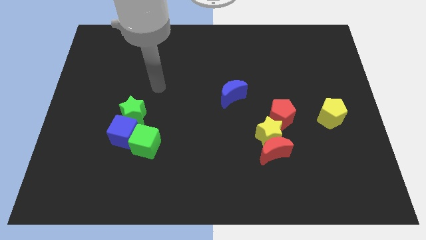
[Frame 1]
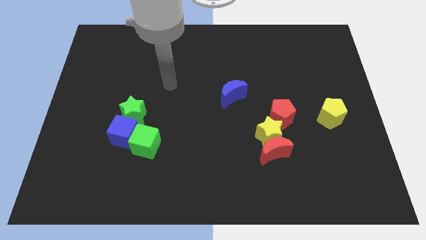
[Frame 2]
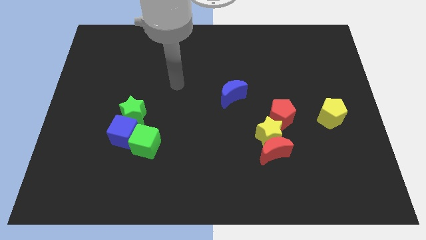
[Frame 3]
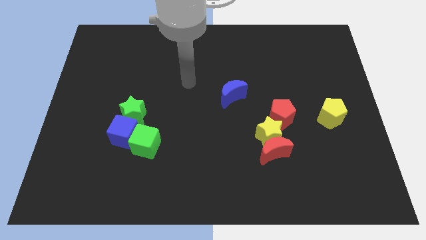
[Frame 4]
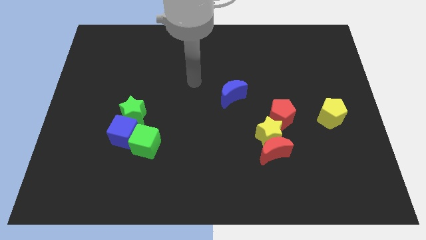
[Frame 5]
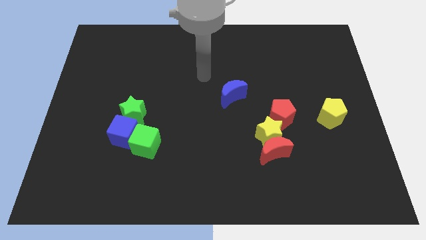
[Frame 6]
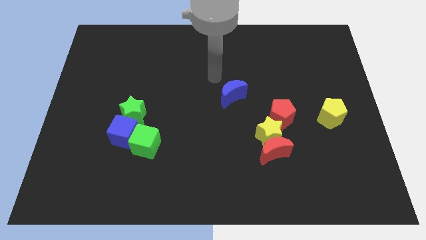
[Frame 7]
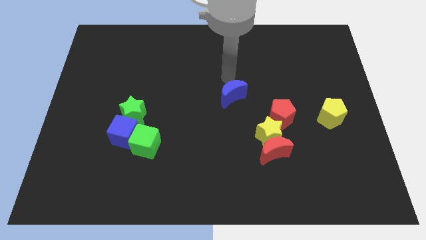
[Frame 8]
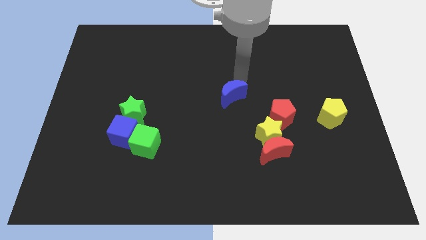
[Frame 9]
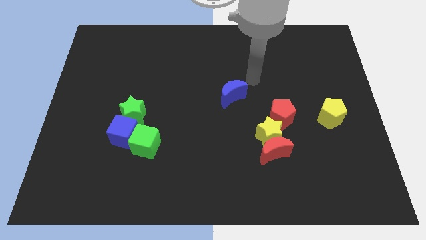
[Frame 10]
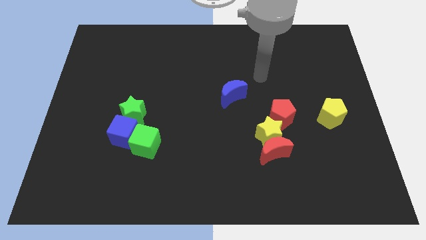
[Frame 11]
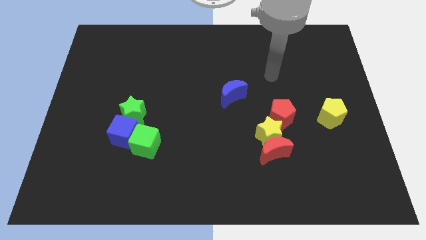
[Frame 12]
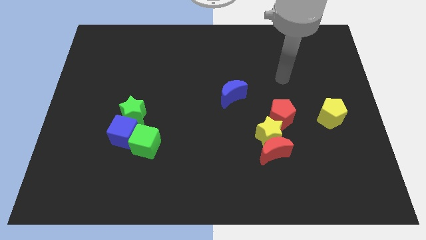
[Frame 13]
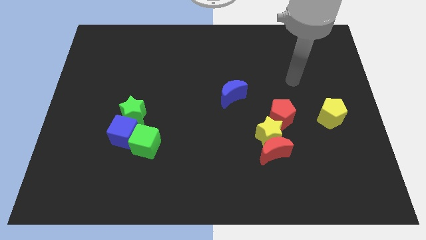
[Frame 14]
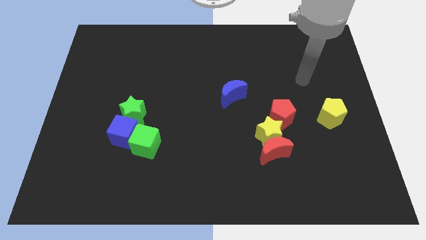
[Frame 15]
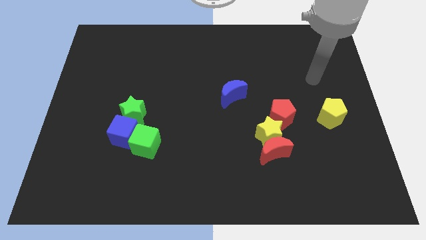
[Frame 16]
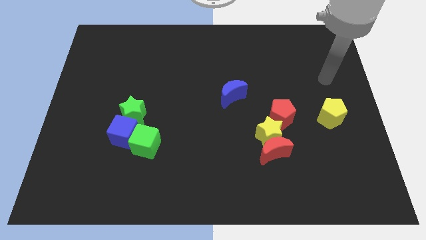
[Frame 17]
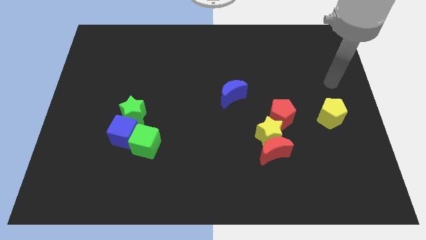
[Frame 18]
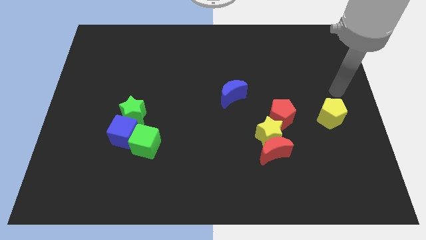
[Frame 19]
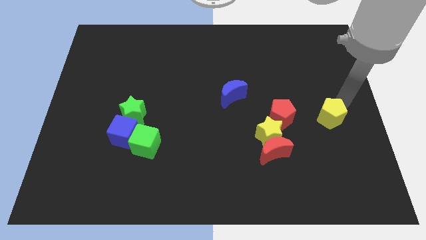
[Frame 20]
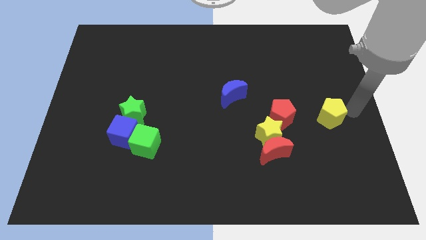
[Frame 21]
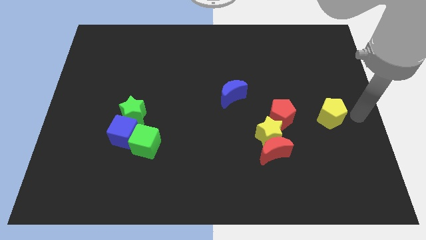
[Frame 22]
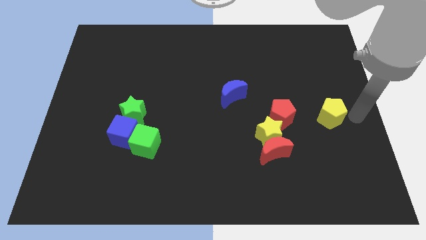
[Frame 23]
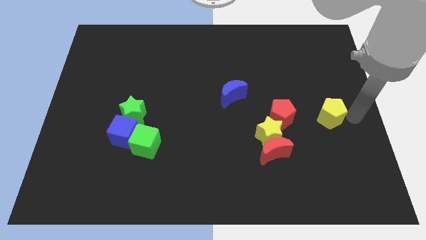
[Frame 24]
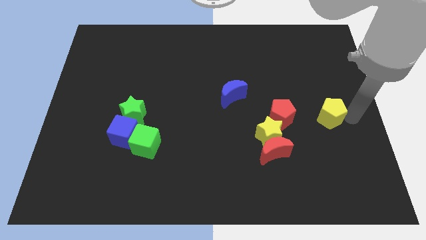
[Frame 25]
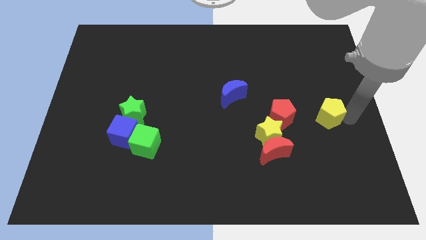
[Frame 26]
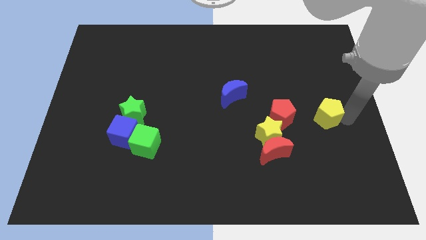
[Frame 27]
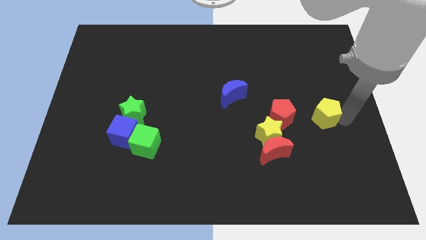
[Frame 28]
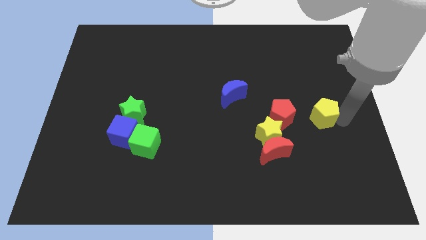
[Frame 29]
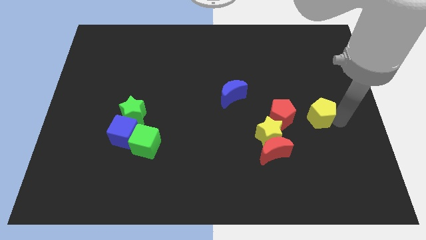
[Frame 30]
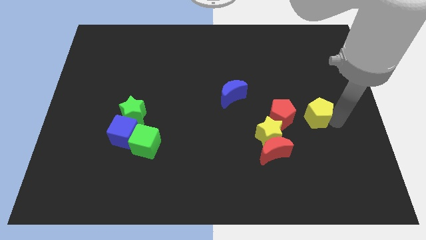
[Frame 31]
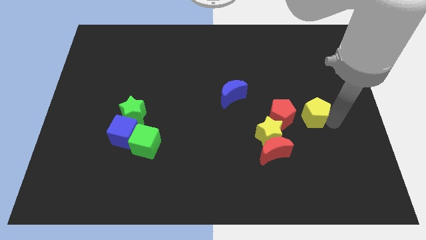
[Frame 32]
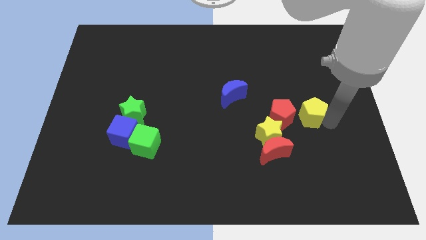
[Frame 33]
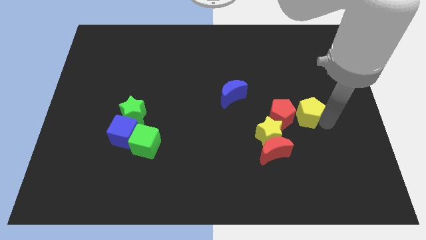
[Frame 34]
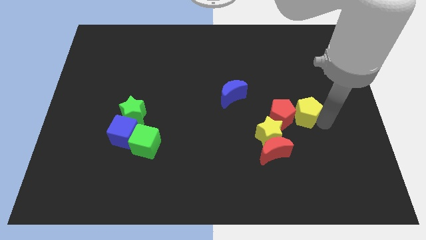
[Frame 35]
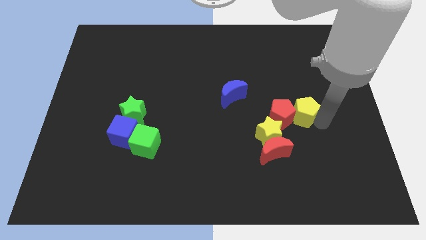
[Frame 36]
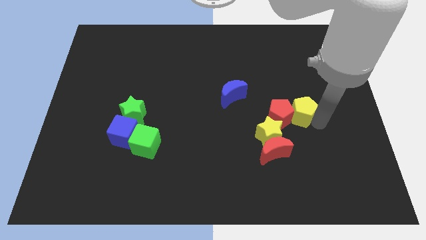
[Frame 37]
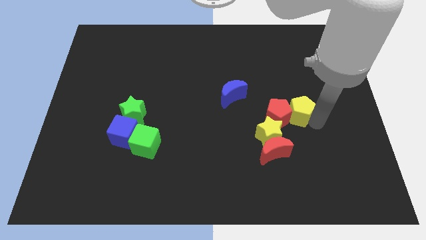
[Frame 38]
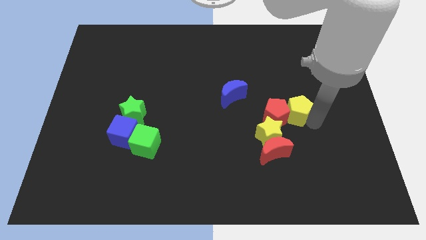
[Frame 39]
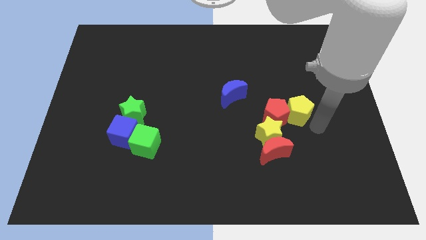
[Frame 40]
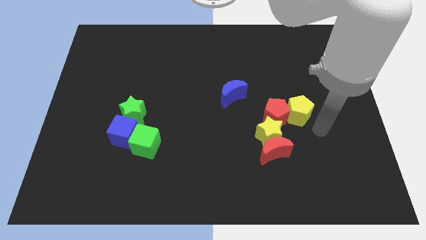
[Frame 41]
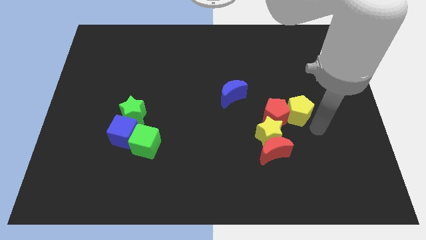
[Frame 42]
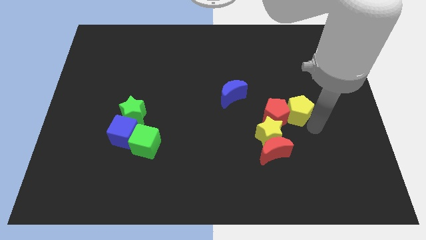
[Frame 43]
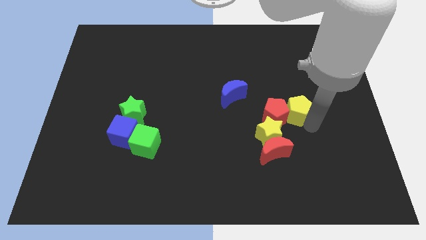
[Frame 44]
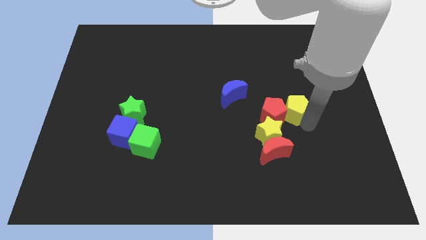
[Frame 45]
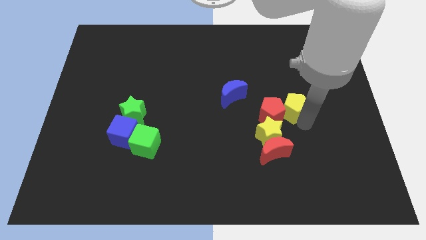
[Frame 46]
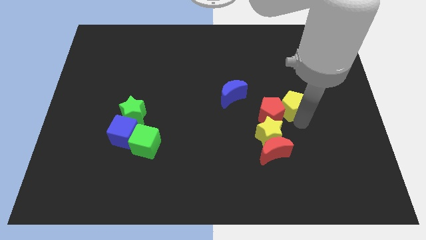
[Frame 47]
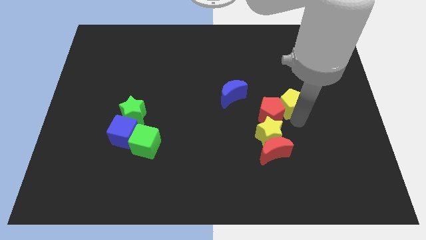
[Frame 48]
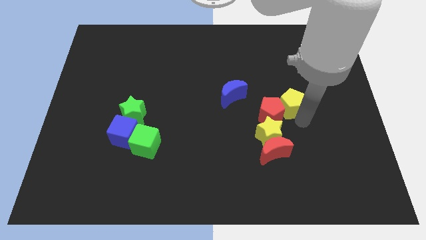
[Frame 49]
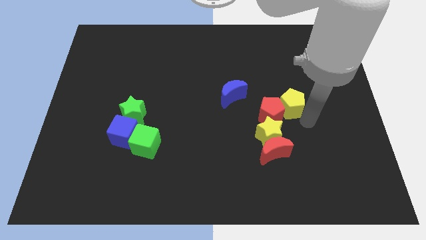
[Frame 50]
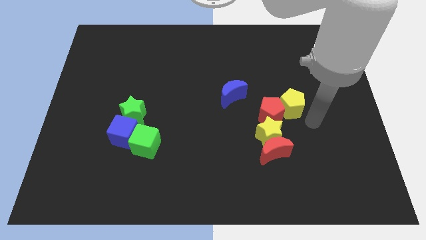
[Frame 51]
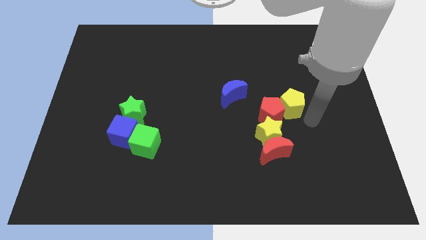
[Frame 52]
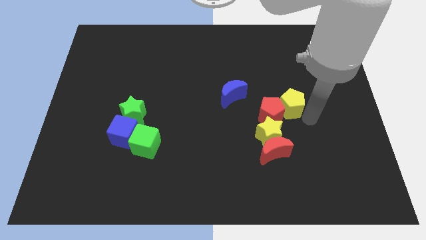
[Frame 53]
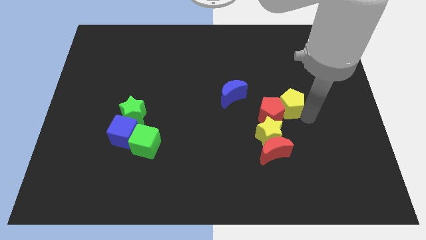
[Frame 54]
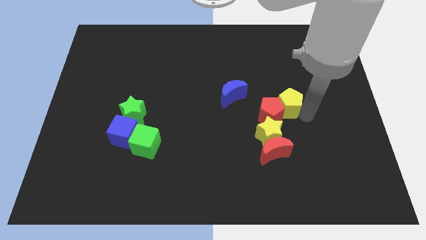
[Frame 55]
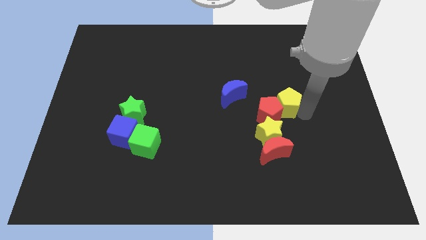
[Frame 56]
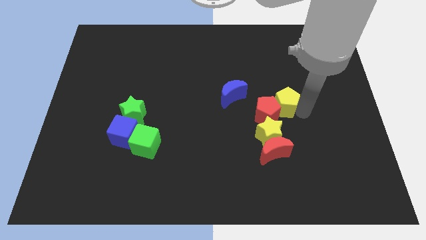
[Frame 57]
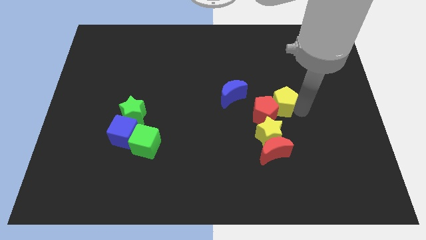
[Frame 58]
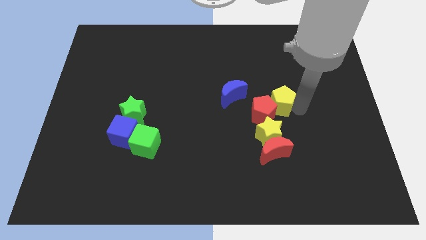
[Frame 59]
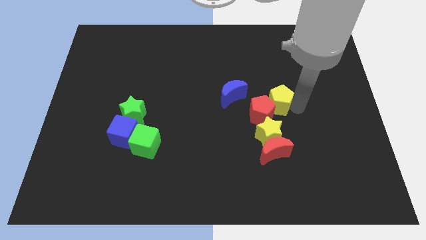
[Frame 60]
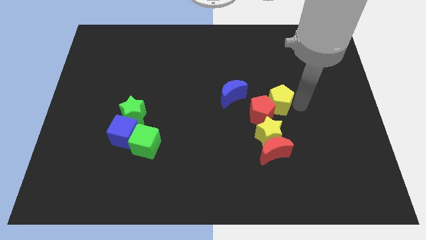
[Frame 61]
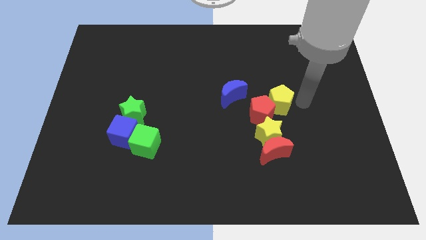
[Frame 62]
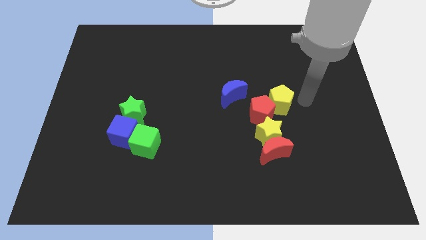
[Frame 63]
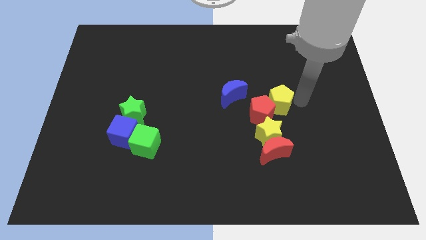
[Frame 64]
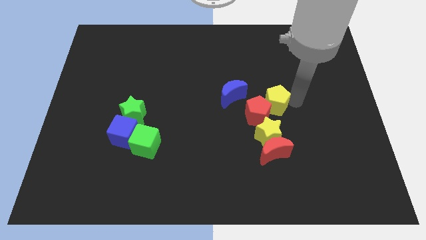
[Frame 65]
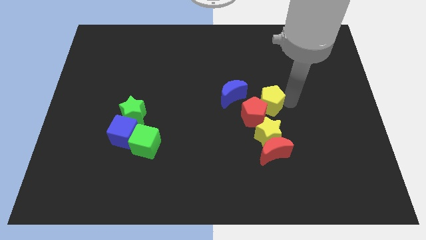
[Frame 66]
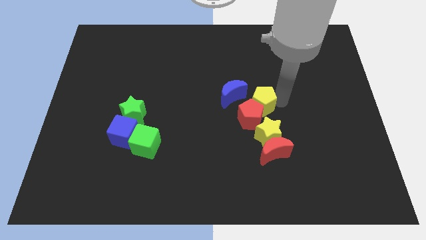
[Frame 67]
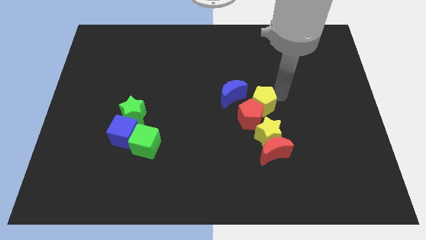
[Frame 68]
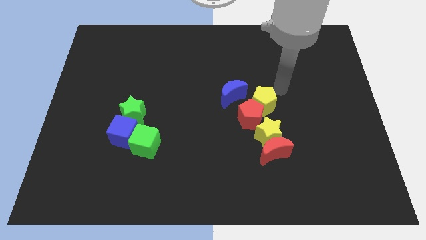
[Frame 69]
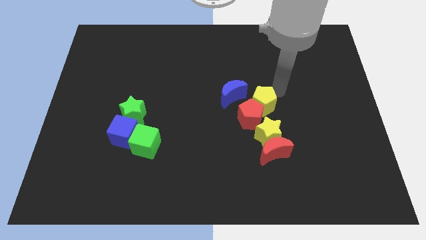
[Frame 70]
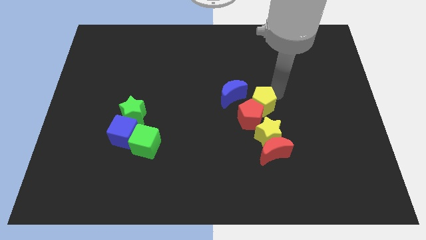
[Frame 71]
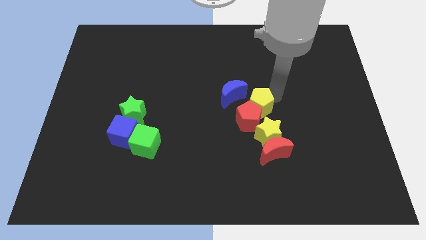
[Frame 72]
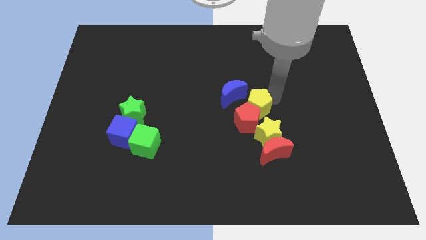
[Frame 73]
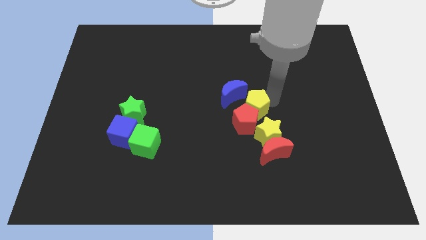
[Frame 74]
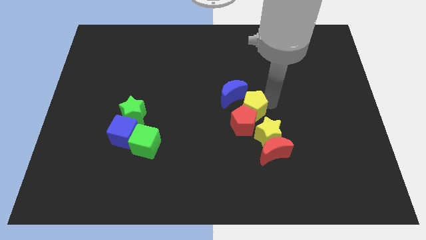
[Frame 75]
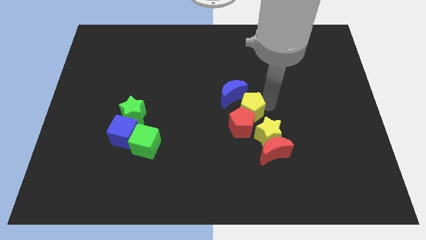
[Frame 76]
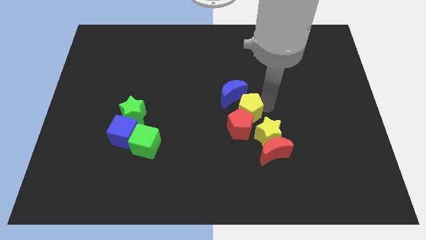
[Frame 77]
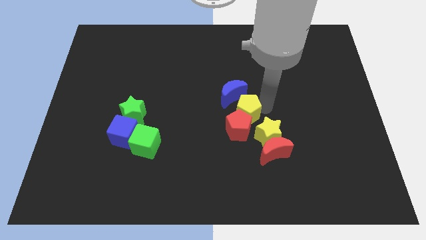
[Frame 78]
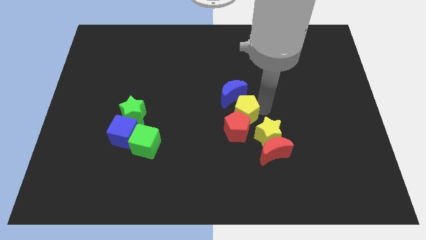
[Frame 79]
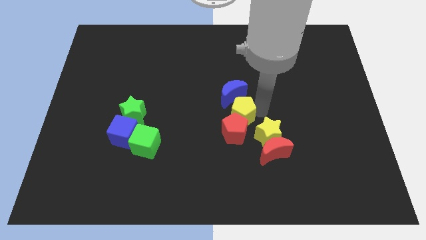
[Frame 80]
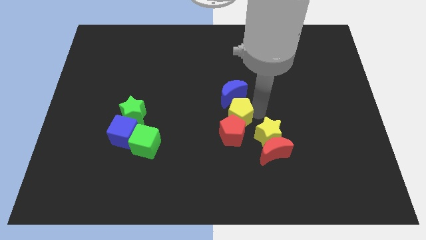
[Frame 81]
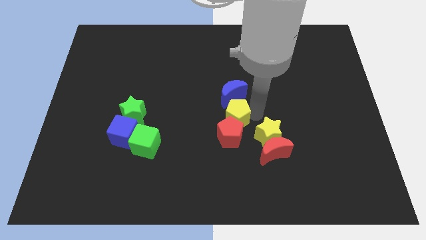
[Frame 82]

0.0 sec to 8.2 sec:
put the yellow pentagon to the left of the yellow star

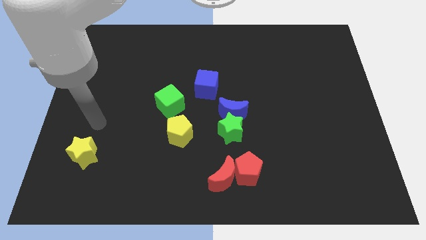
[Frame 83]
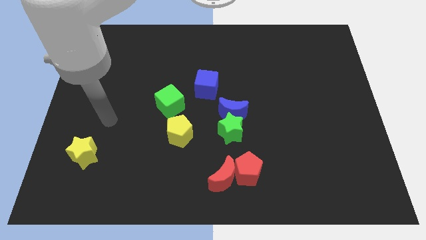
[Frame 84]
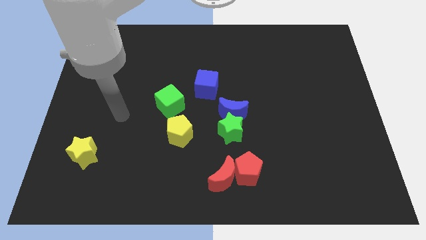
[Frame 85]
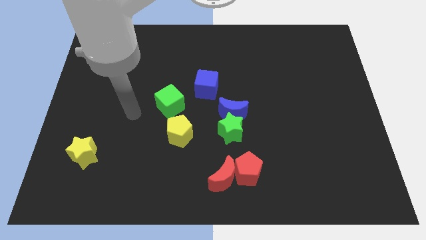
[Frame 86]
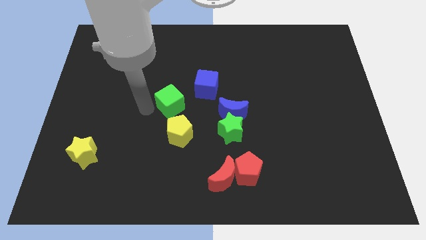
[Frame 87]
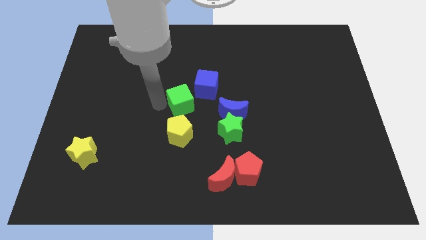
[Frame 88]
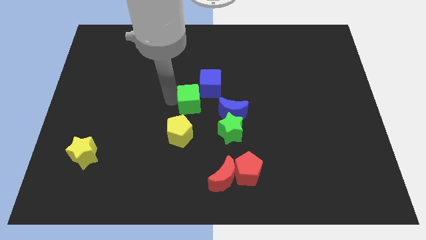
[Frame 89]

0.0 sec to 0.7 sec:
slide the blue cube to the top of the blue moon
